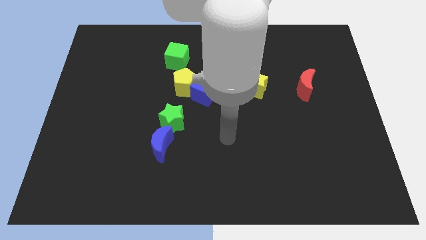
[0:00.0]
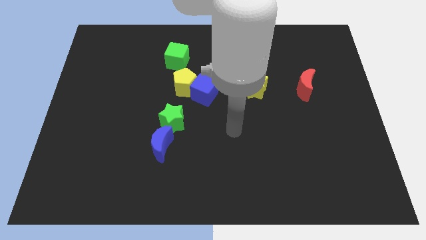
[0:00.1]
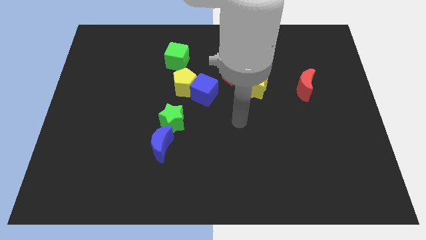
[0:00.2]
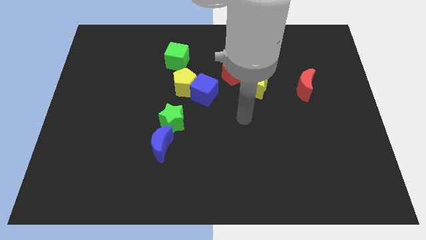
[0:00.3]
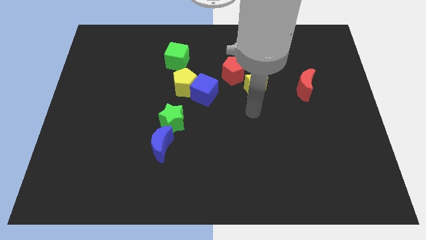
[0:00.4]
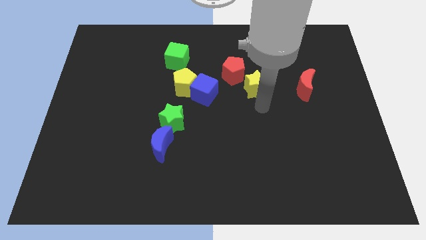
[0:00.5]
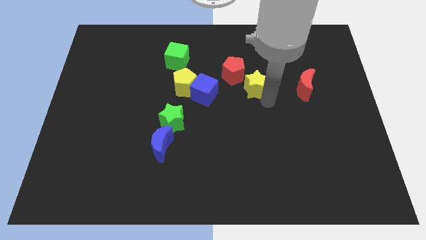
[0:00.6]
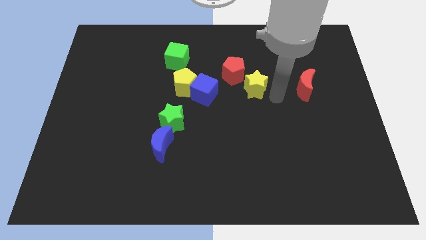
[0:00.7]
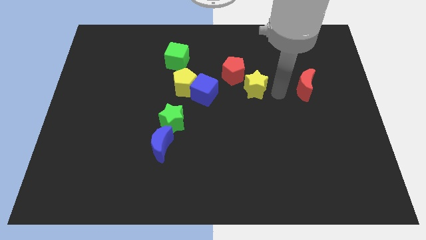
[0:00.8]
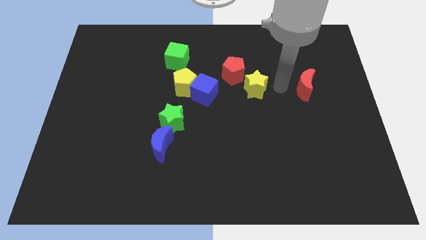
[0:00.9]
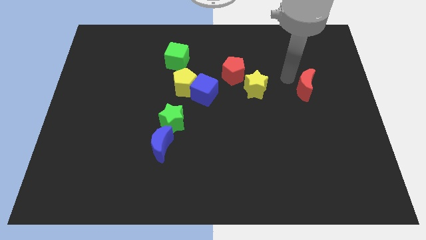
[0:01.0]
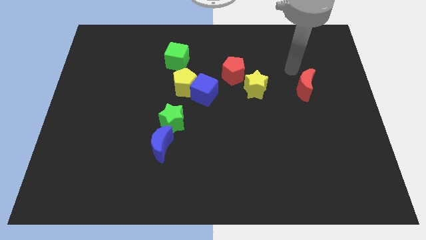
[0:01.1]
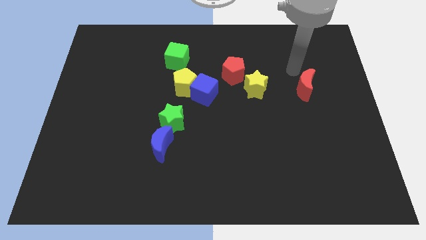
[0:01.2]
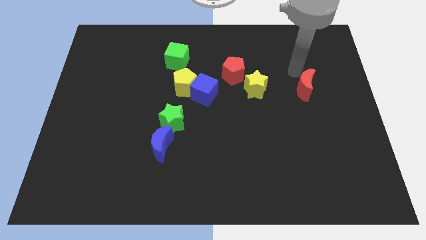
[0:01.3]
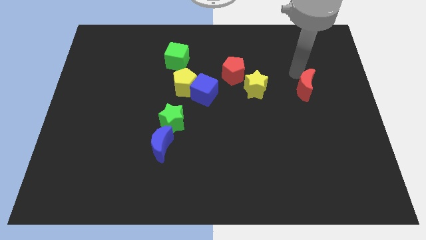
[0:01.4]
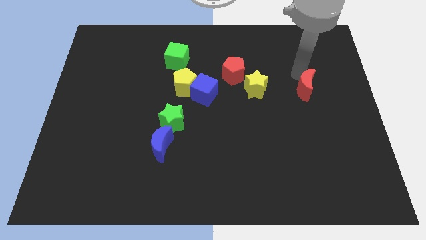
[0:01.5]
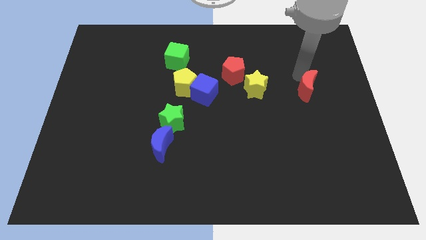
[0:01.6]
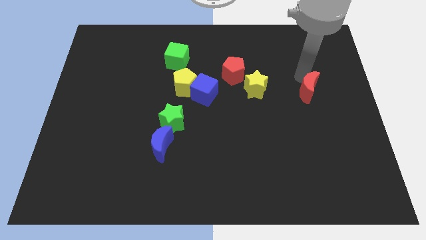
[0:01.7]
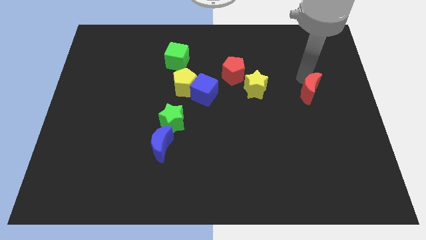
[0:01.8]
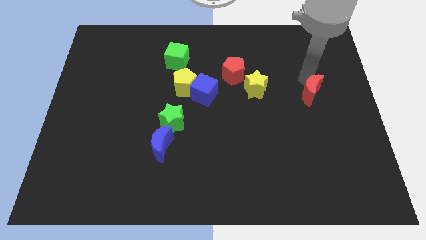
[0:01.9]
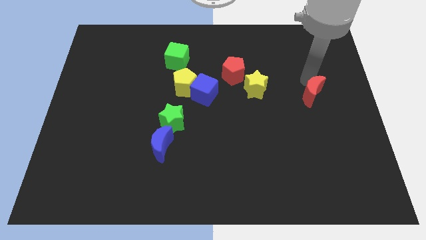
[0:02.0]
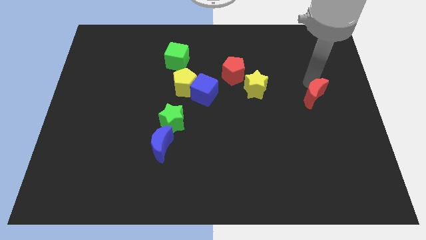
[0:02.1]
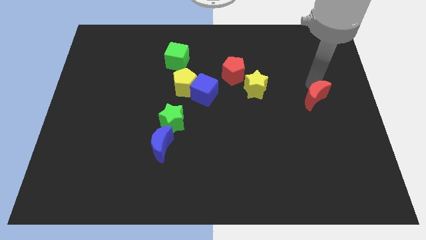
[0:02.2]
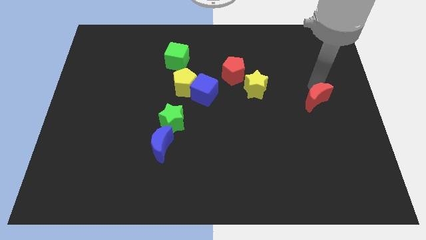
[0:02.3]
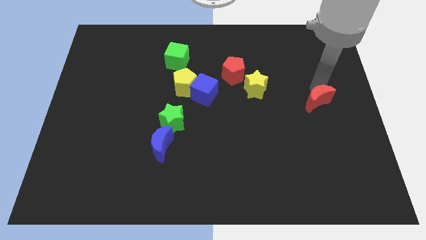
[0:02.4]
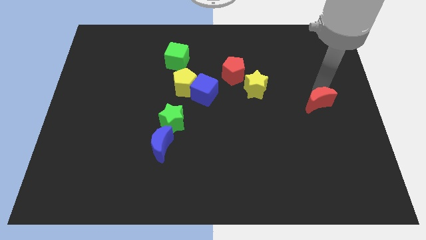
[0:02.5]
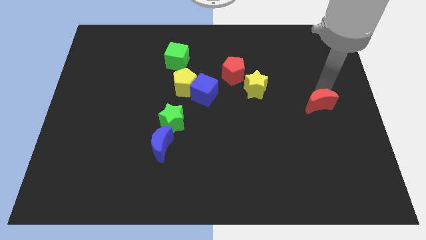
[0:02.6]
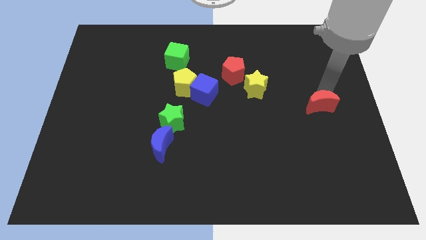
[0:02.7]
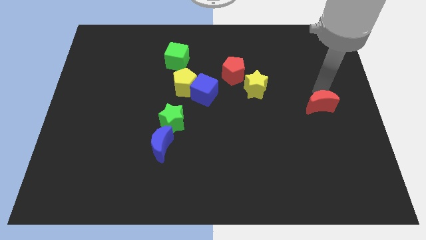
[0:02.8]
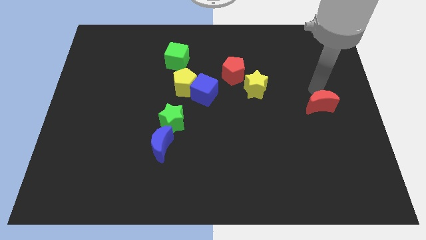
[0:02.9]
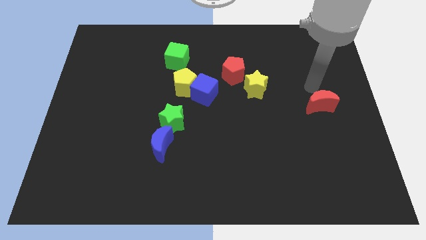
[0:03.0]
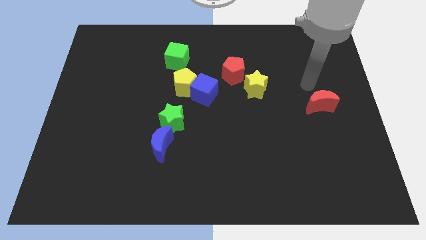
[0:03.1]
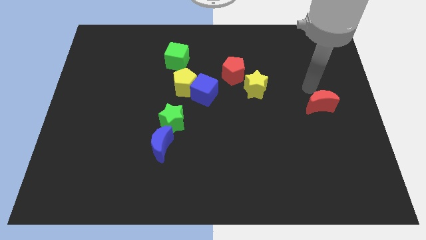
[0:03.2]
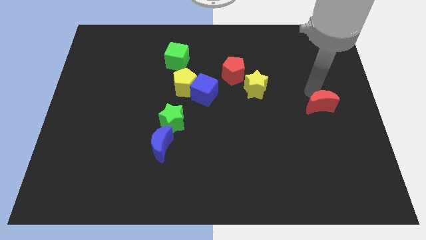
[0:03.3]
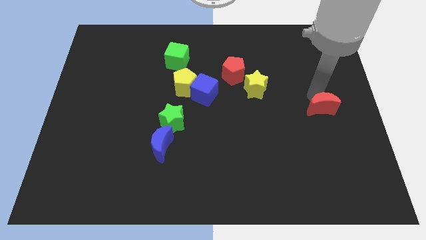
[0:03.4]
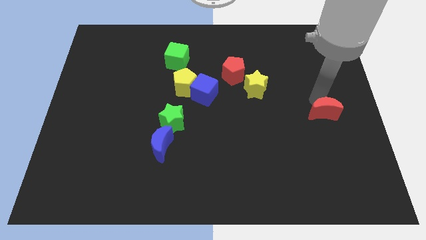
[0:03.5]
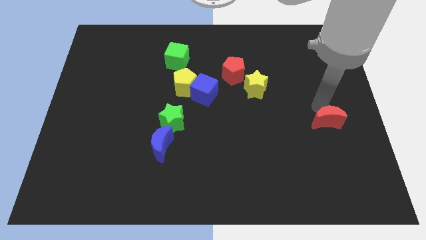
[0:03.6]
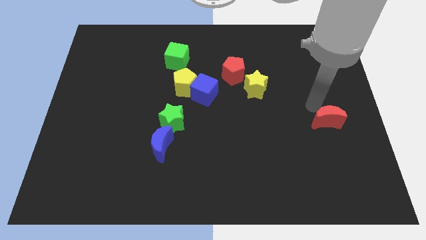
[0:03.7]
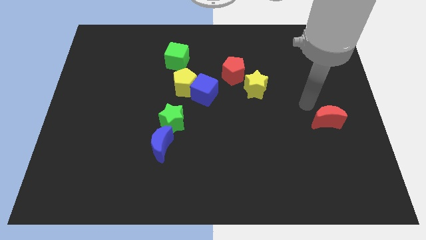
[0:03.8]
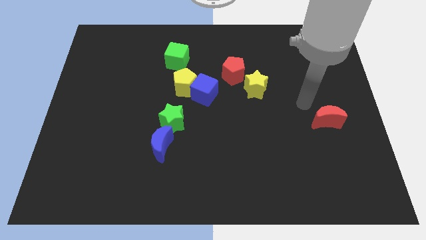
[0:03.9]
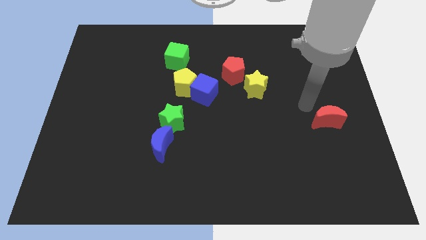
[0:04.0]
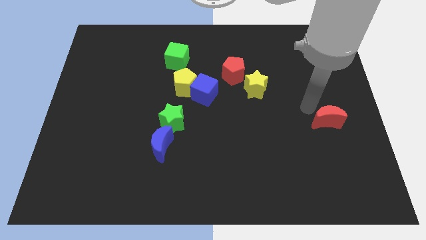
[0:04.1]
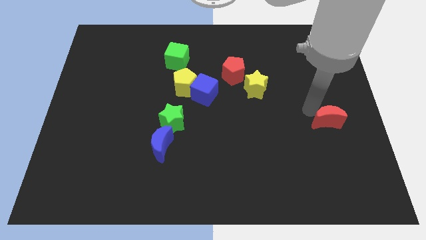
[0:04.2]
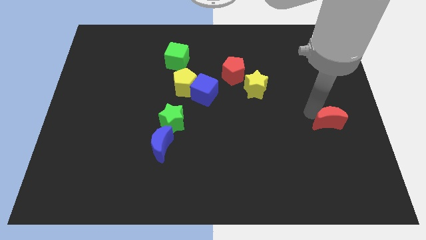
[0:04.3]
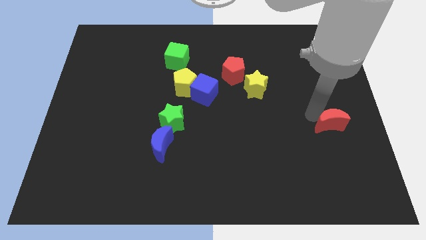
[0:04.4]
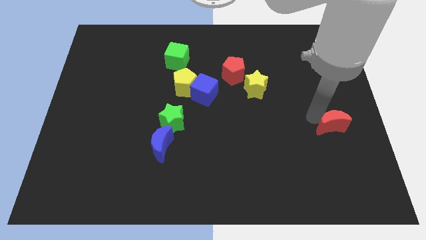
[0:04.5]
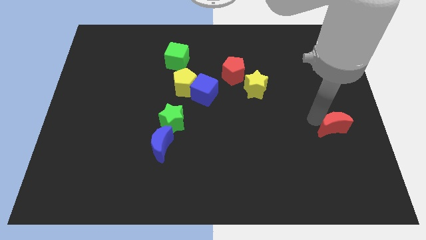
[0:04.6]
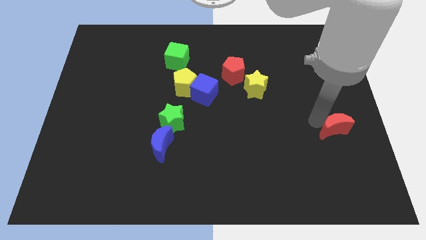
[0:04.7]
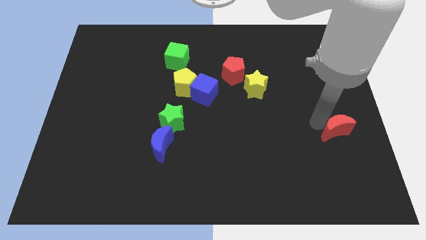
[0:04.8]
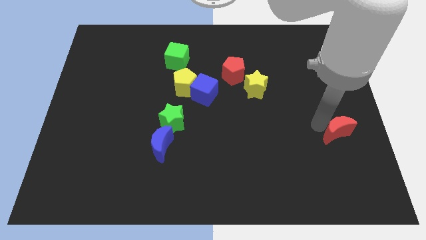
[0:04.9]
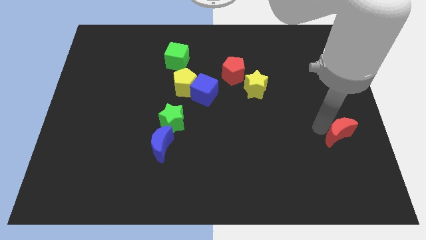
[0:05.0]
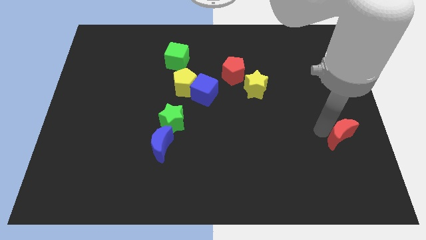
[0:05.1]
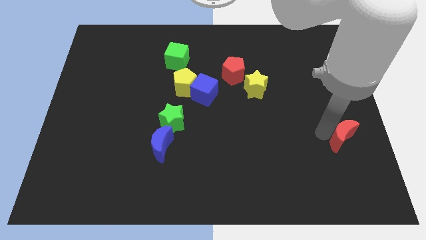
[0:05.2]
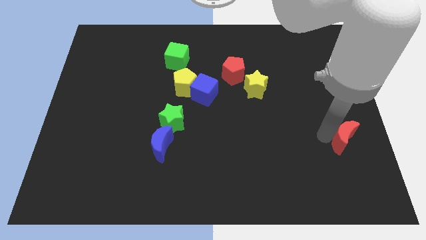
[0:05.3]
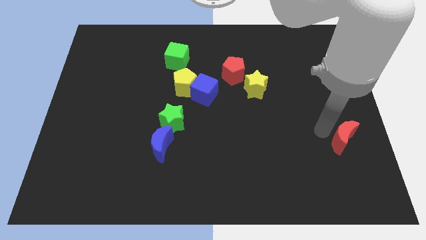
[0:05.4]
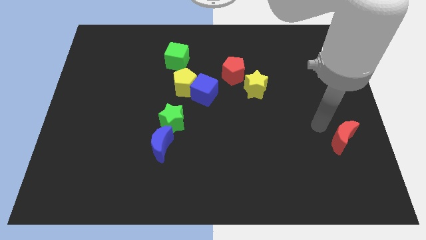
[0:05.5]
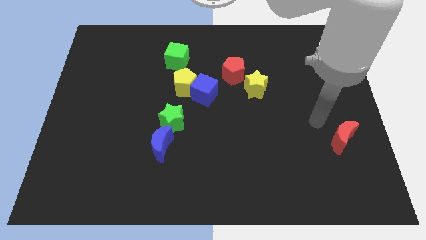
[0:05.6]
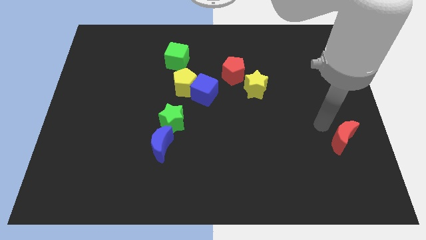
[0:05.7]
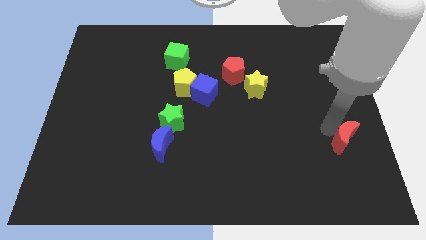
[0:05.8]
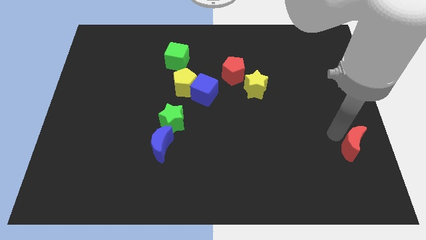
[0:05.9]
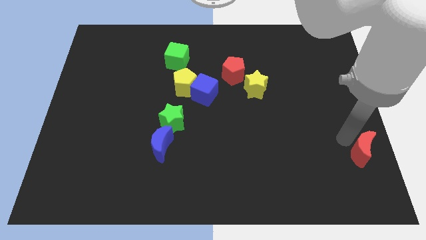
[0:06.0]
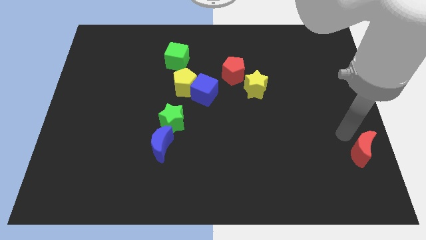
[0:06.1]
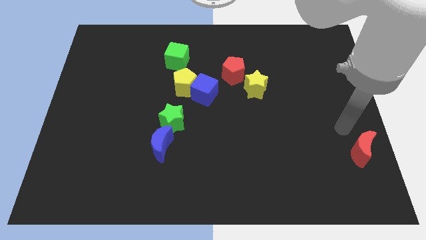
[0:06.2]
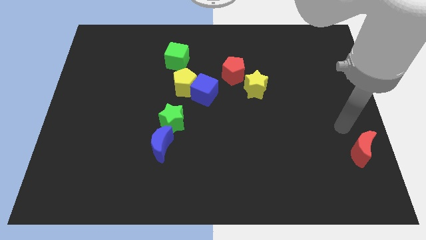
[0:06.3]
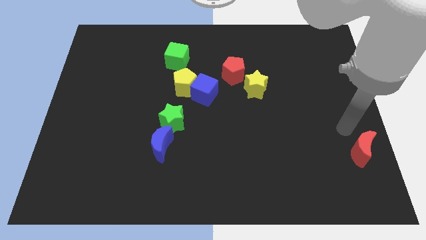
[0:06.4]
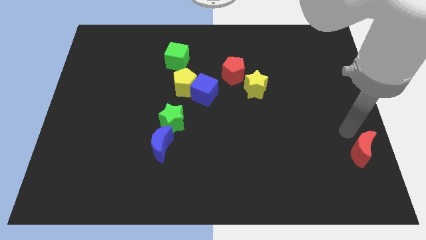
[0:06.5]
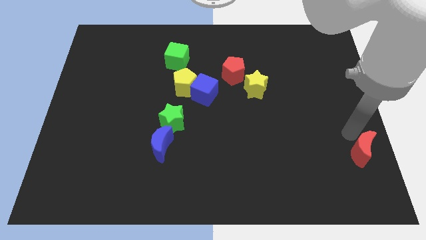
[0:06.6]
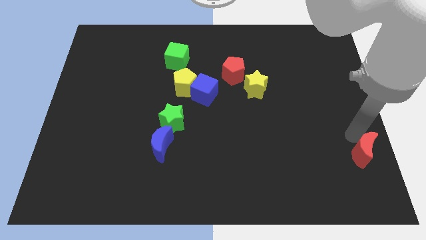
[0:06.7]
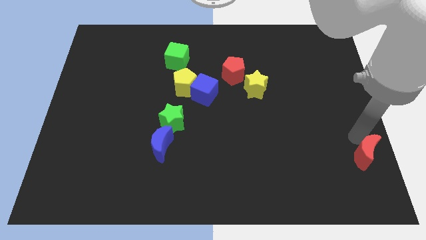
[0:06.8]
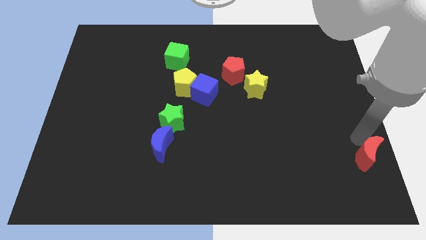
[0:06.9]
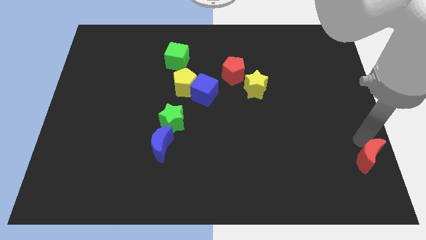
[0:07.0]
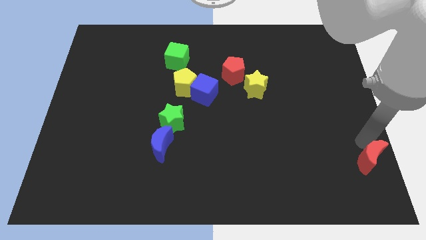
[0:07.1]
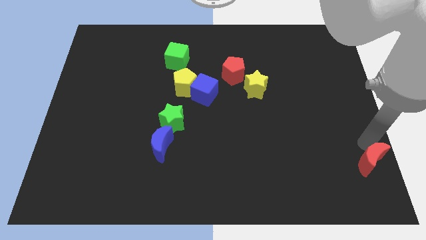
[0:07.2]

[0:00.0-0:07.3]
move the red moon to the bottom right of the board
